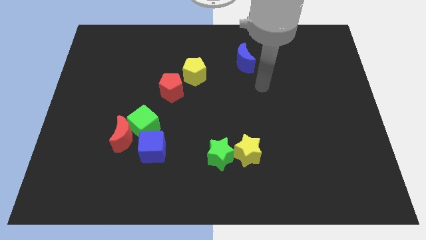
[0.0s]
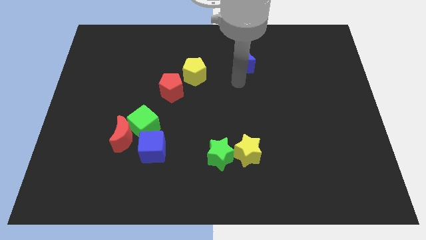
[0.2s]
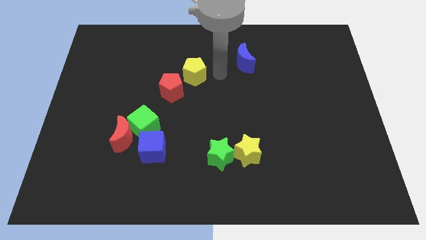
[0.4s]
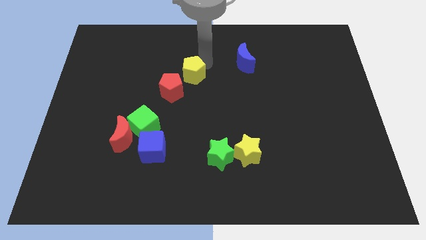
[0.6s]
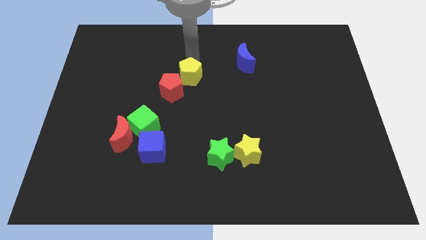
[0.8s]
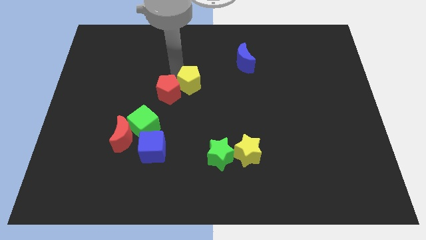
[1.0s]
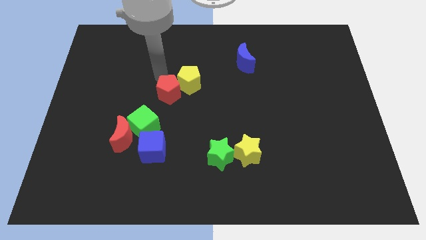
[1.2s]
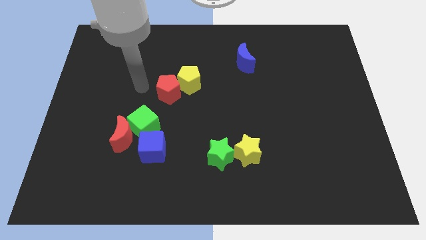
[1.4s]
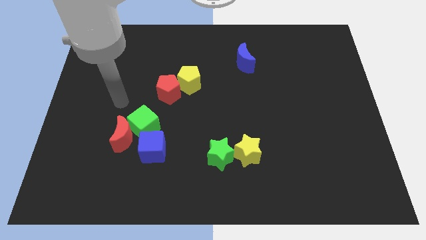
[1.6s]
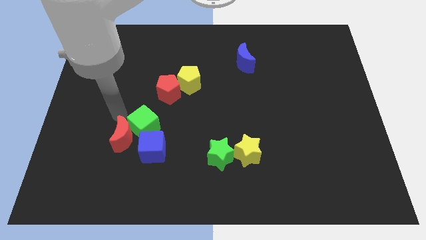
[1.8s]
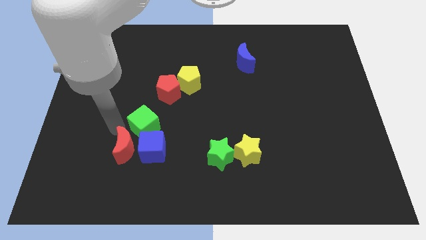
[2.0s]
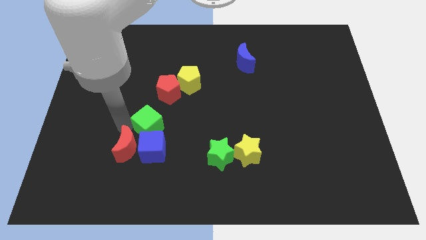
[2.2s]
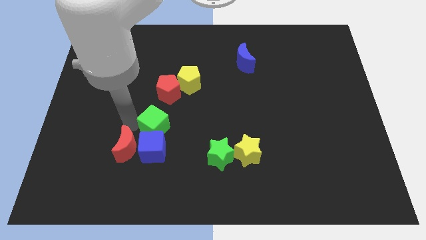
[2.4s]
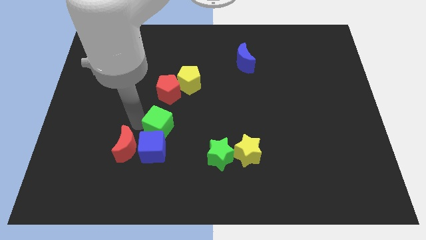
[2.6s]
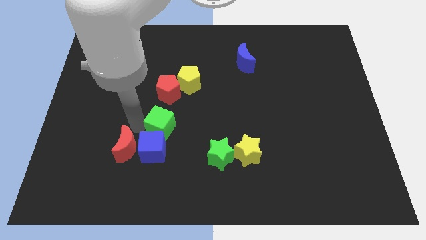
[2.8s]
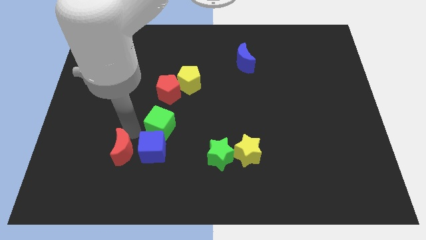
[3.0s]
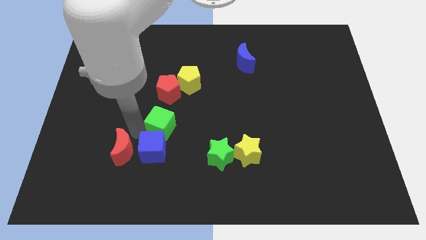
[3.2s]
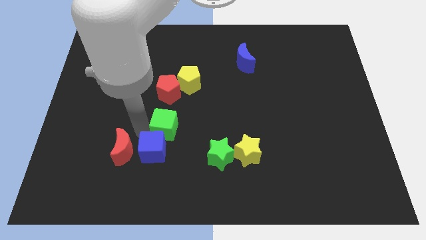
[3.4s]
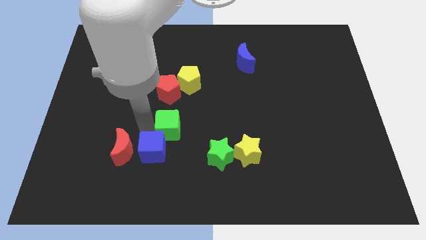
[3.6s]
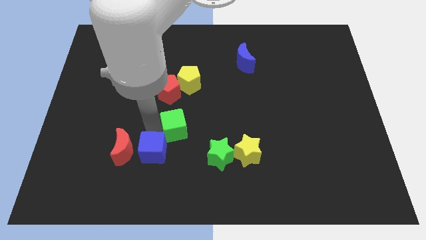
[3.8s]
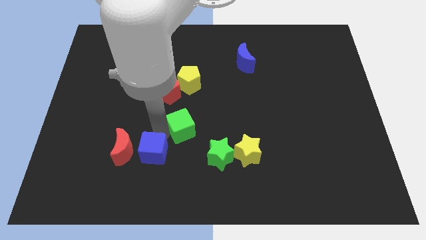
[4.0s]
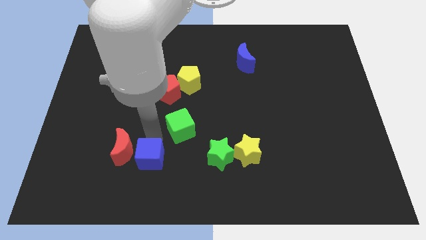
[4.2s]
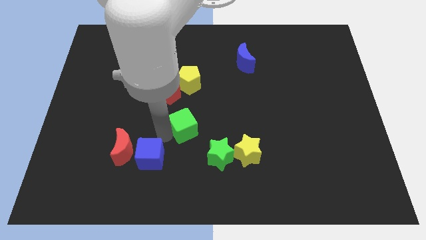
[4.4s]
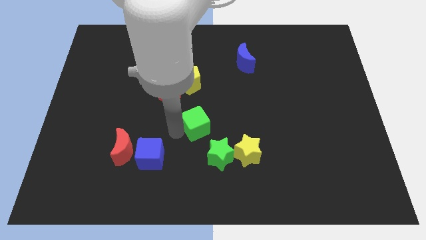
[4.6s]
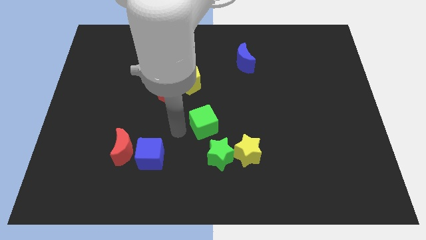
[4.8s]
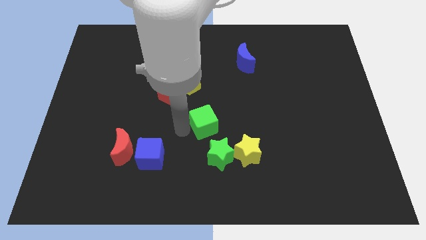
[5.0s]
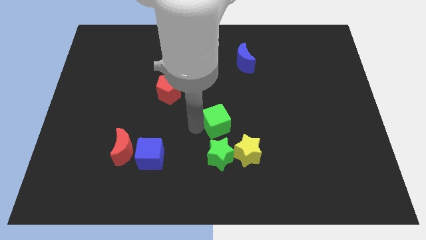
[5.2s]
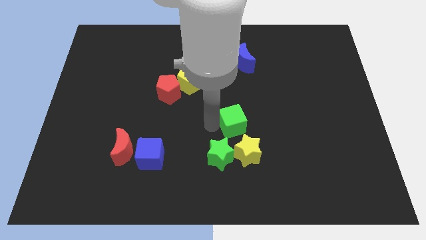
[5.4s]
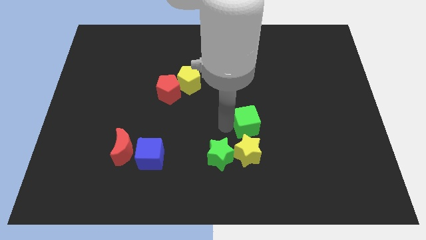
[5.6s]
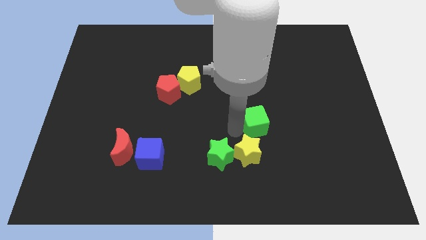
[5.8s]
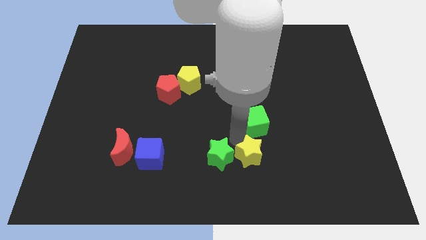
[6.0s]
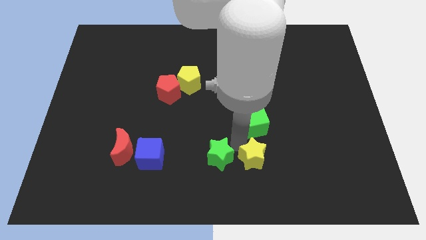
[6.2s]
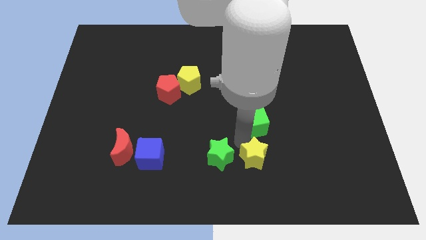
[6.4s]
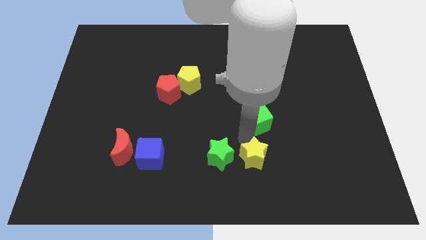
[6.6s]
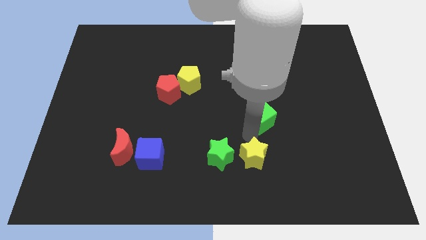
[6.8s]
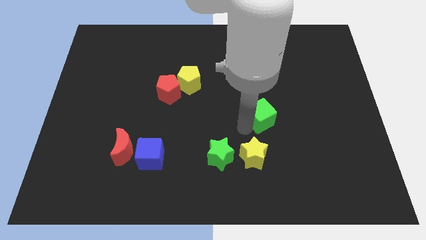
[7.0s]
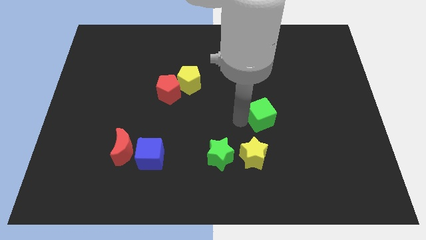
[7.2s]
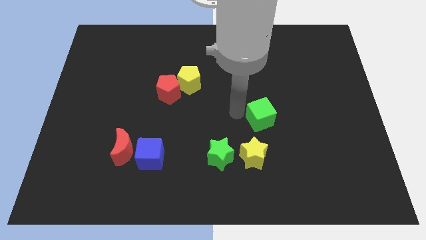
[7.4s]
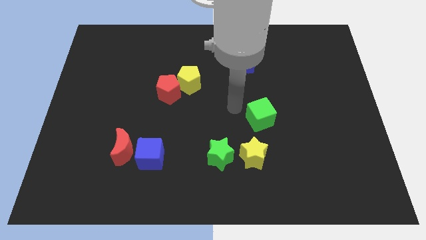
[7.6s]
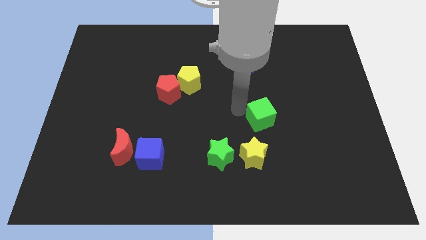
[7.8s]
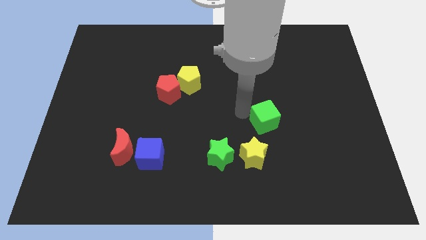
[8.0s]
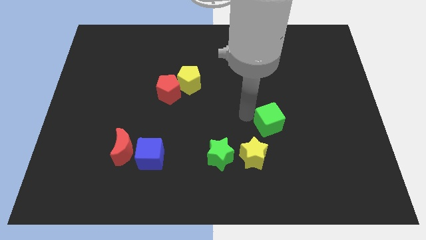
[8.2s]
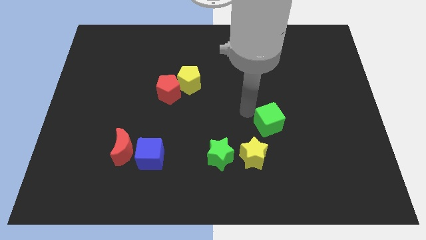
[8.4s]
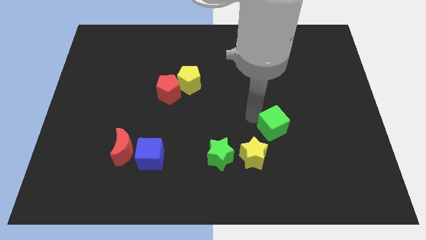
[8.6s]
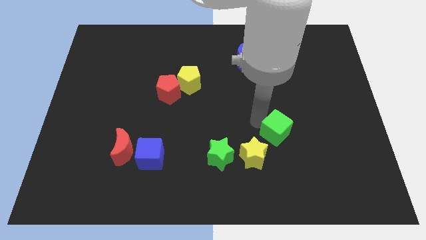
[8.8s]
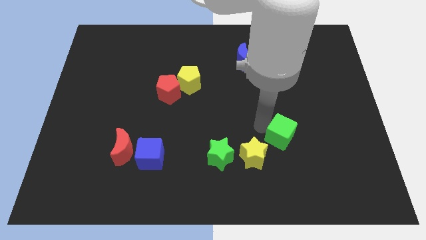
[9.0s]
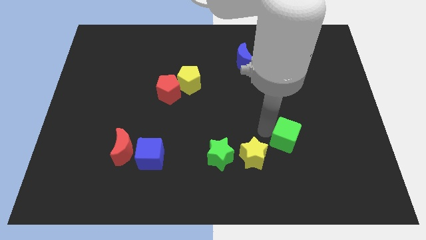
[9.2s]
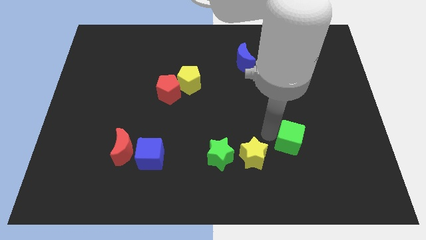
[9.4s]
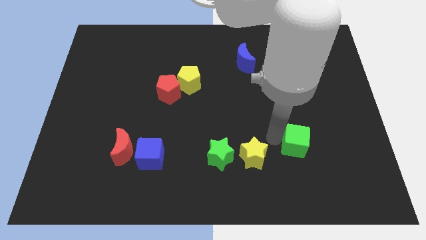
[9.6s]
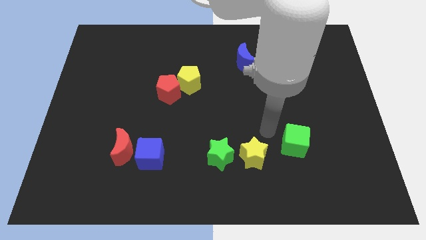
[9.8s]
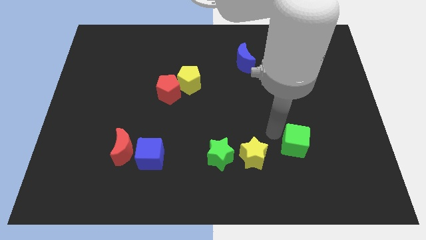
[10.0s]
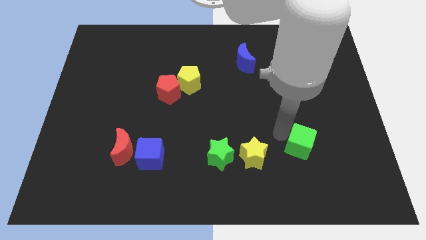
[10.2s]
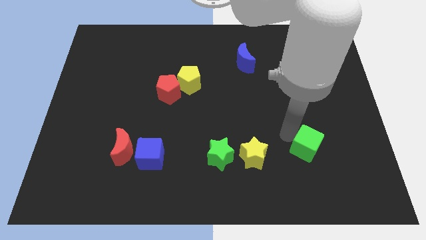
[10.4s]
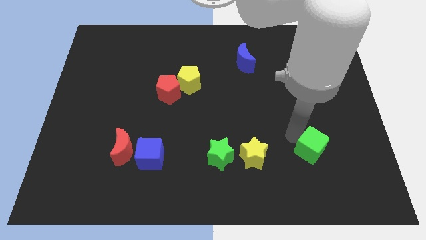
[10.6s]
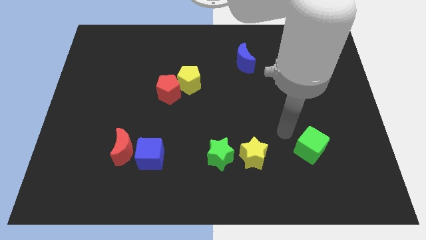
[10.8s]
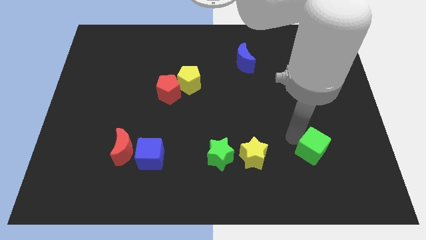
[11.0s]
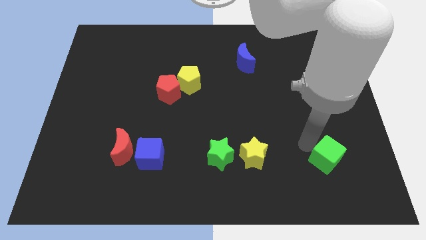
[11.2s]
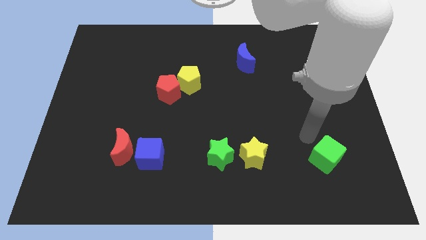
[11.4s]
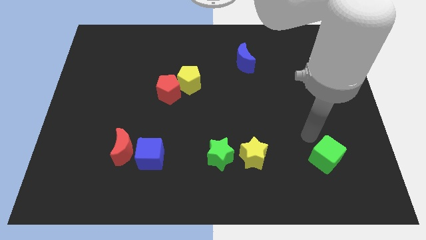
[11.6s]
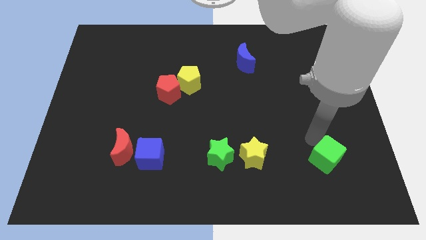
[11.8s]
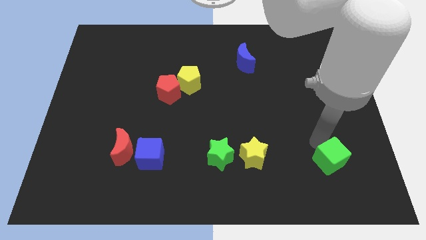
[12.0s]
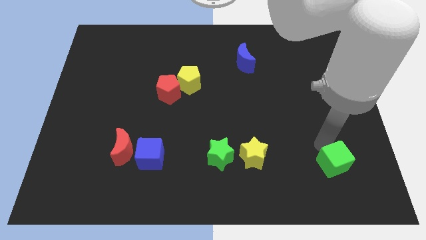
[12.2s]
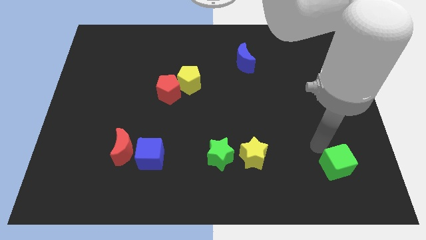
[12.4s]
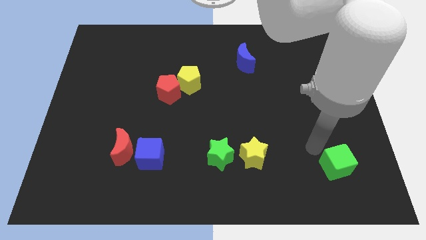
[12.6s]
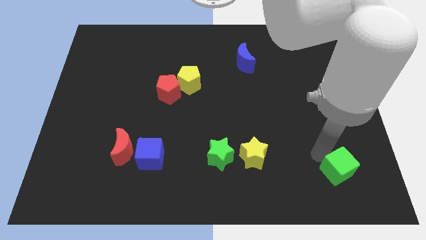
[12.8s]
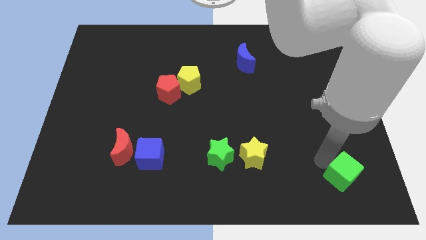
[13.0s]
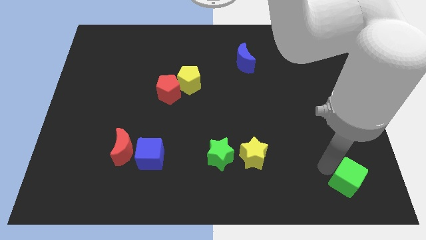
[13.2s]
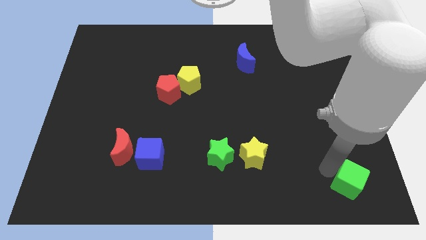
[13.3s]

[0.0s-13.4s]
move the green cube to the bottom right
